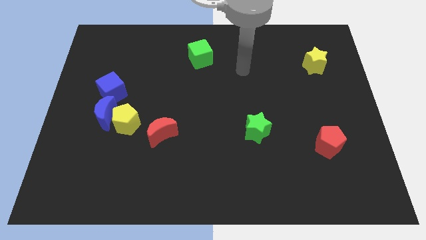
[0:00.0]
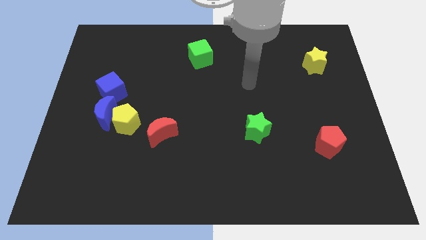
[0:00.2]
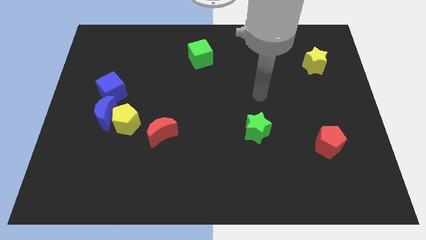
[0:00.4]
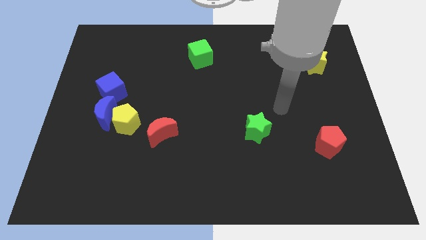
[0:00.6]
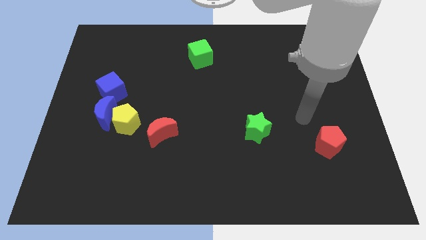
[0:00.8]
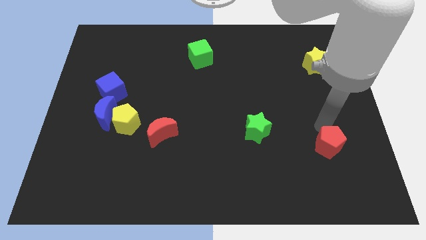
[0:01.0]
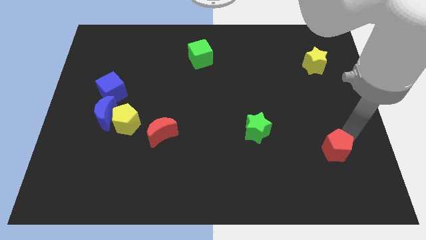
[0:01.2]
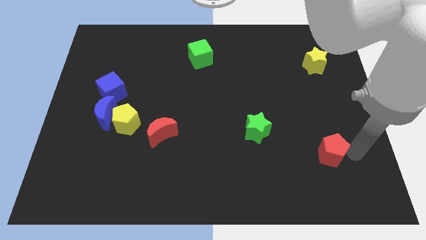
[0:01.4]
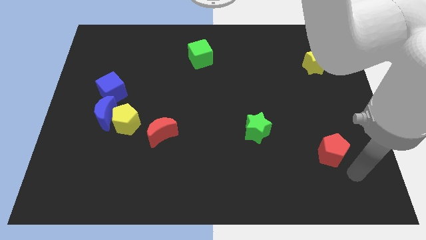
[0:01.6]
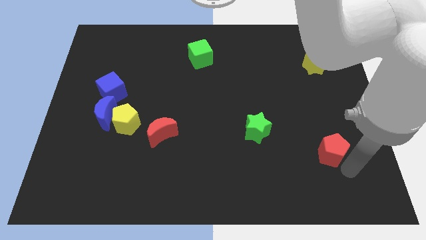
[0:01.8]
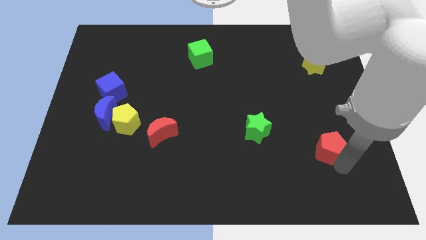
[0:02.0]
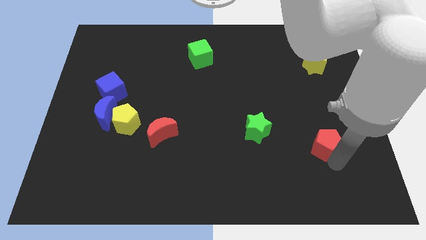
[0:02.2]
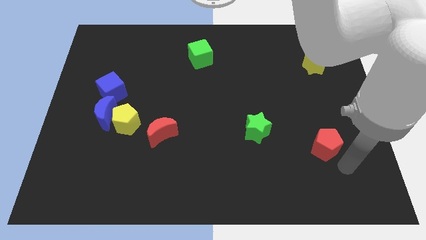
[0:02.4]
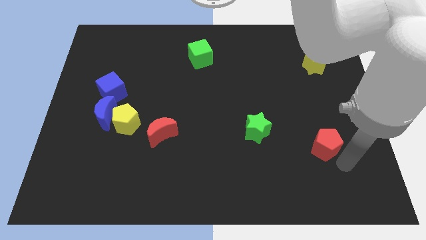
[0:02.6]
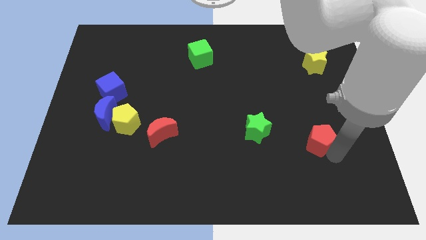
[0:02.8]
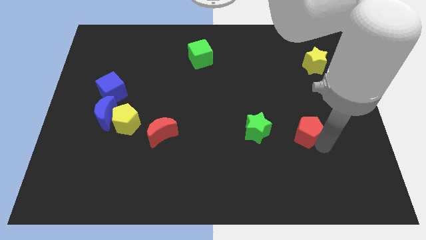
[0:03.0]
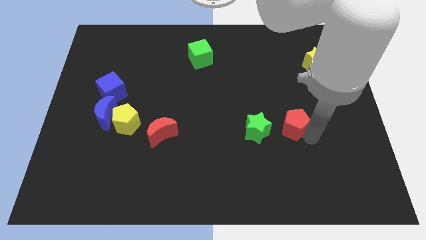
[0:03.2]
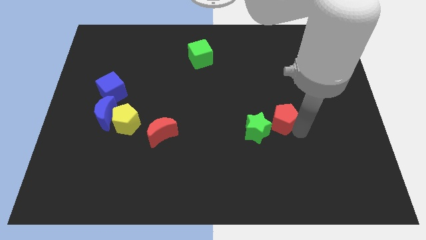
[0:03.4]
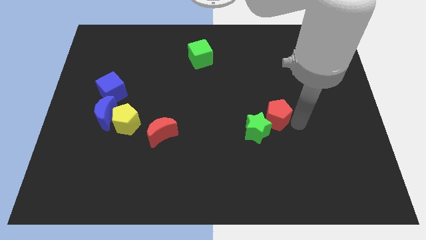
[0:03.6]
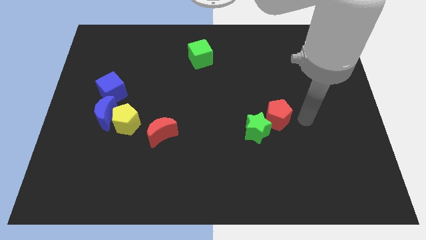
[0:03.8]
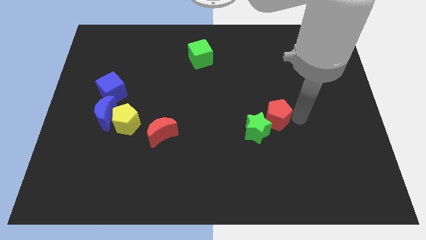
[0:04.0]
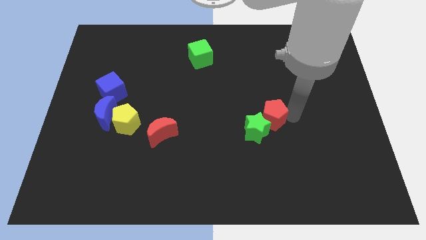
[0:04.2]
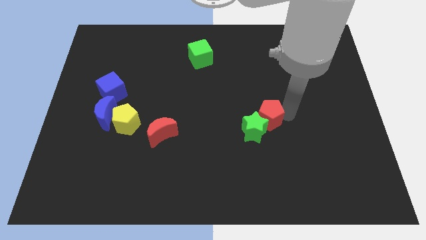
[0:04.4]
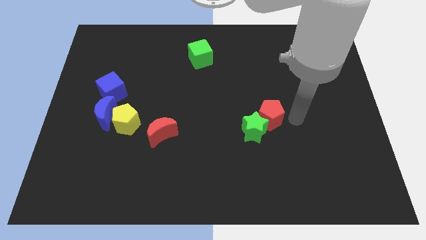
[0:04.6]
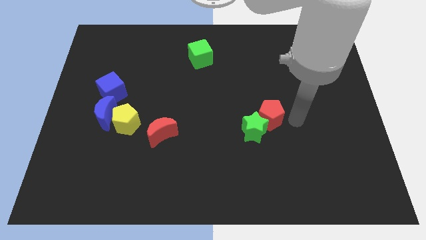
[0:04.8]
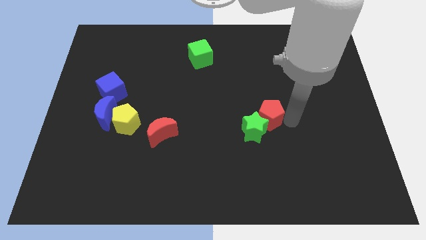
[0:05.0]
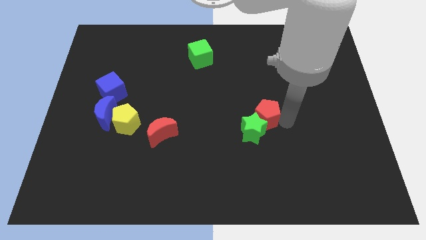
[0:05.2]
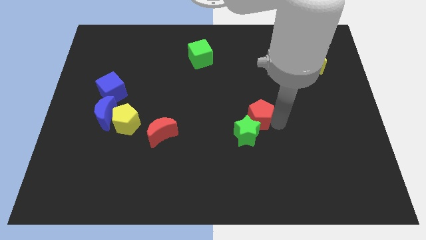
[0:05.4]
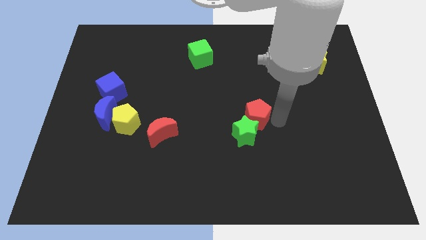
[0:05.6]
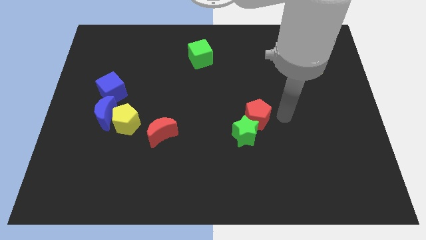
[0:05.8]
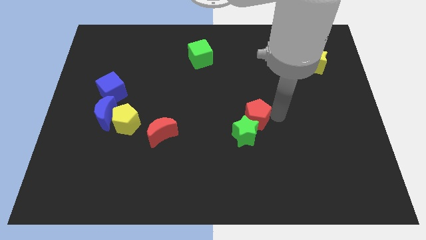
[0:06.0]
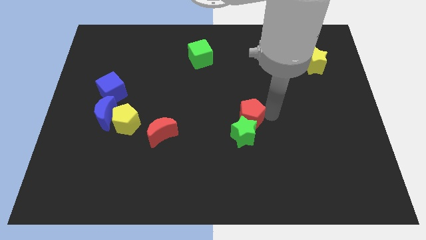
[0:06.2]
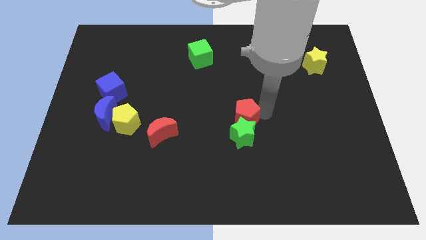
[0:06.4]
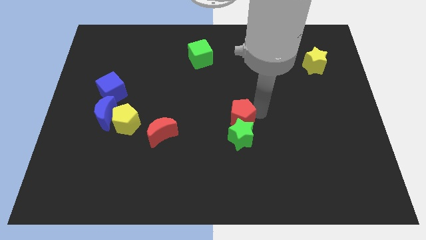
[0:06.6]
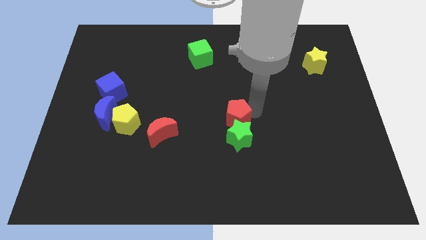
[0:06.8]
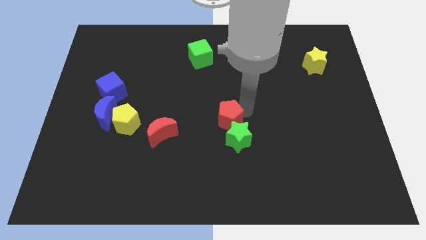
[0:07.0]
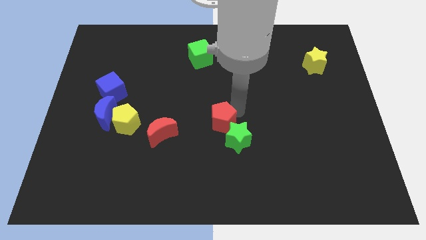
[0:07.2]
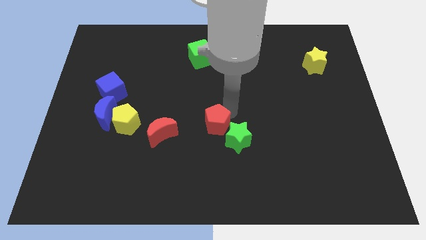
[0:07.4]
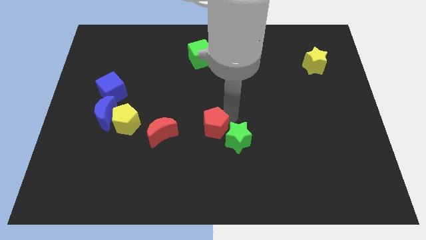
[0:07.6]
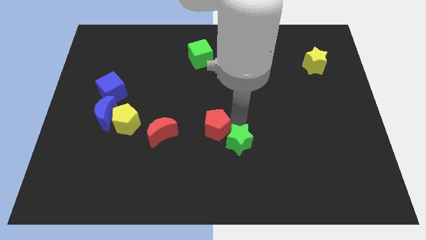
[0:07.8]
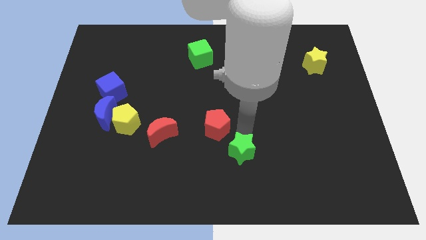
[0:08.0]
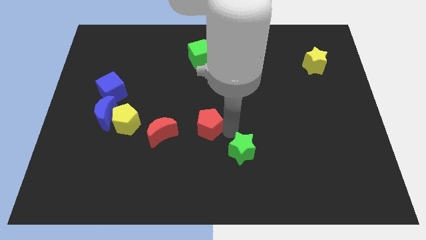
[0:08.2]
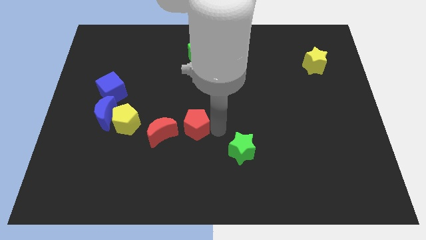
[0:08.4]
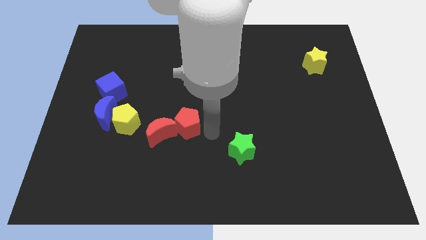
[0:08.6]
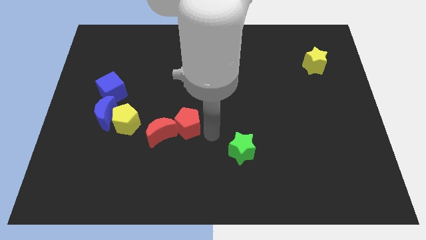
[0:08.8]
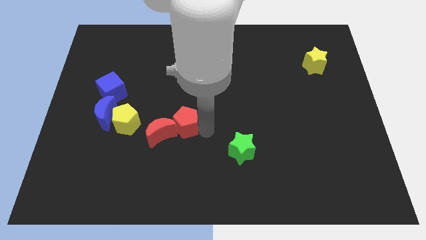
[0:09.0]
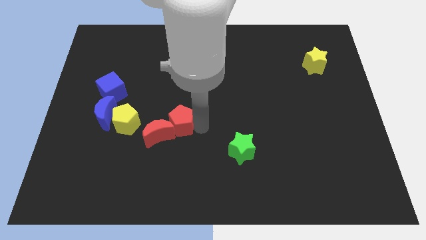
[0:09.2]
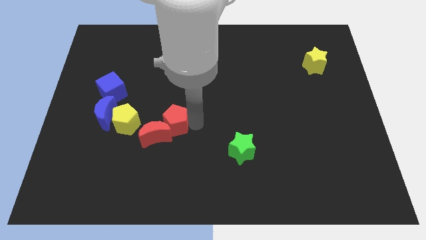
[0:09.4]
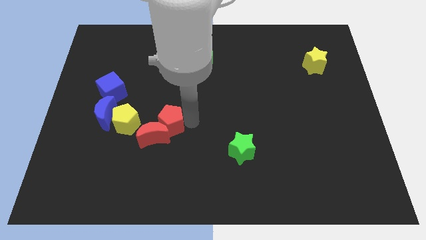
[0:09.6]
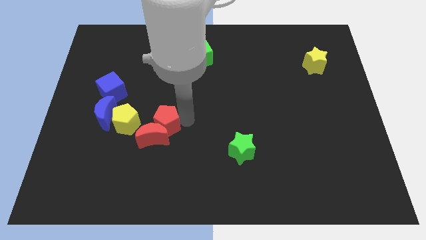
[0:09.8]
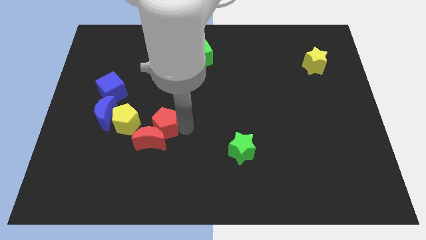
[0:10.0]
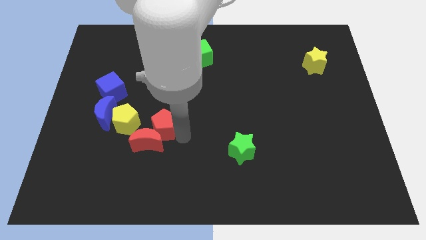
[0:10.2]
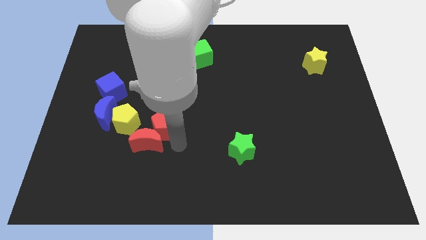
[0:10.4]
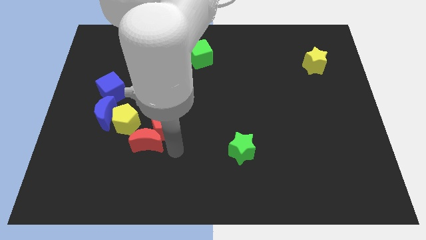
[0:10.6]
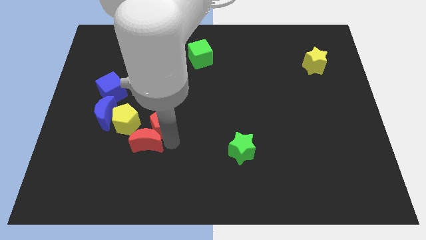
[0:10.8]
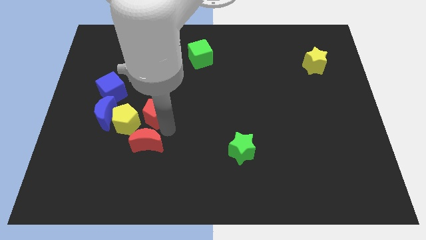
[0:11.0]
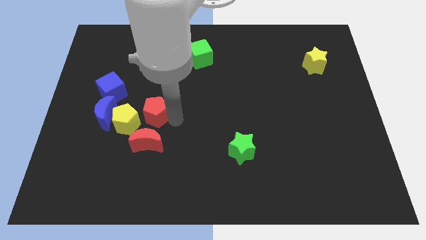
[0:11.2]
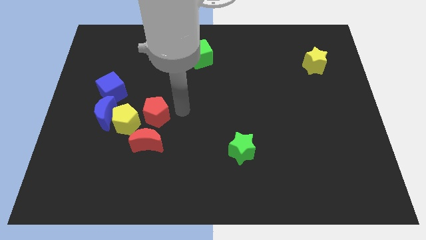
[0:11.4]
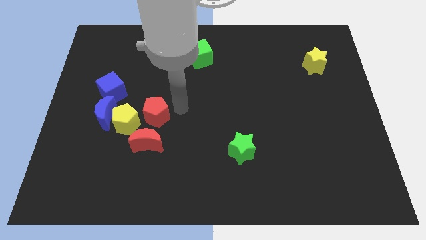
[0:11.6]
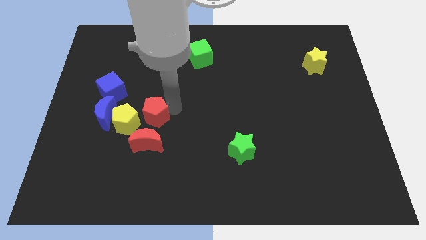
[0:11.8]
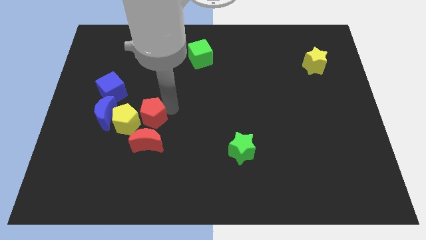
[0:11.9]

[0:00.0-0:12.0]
push the red pentagon towards the yellow pentagon
